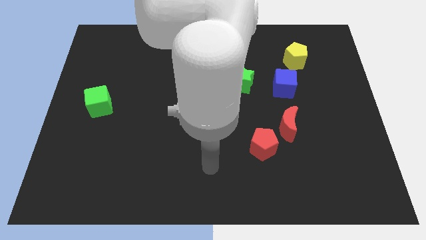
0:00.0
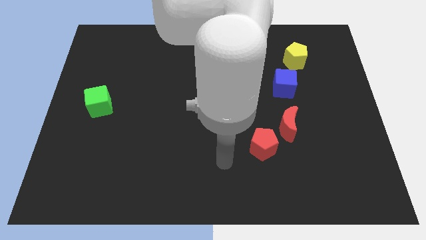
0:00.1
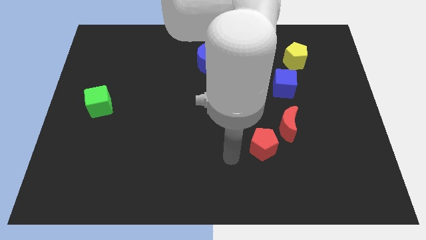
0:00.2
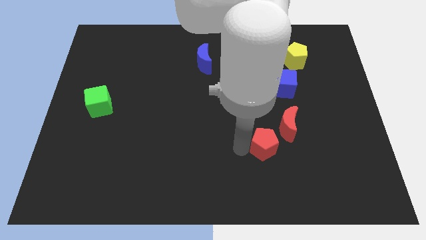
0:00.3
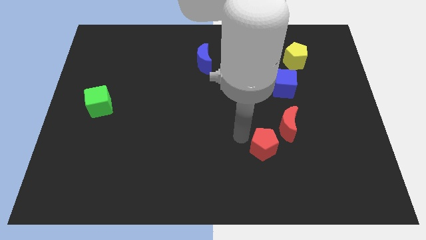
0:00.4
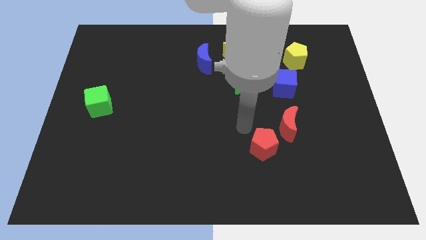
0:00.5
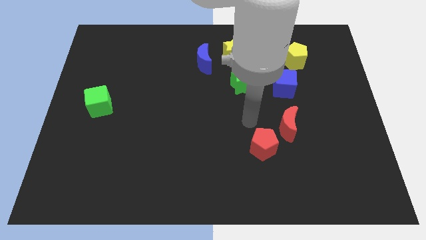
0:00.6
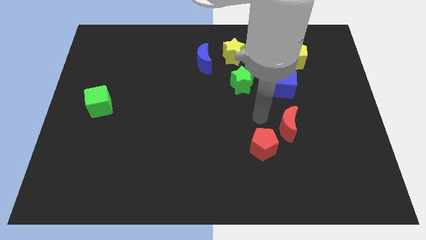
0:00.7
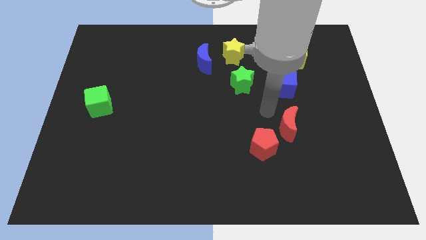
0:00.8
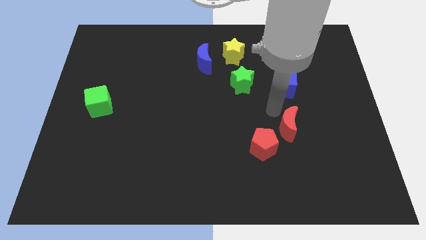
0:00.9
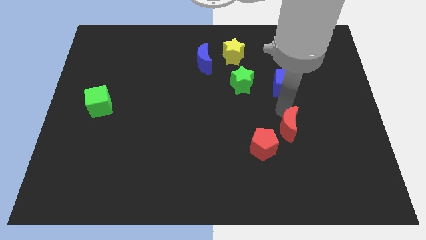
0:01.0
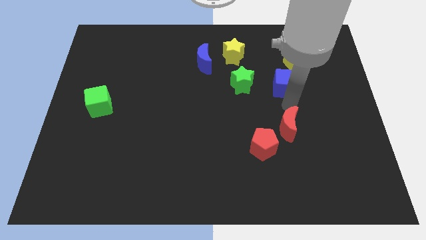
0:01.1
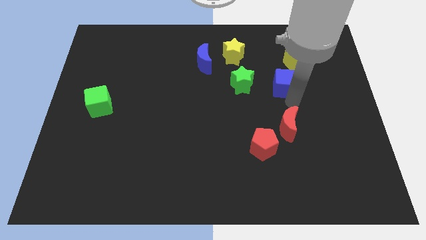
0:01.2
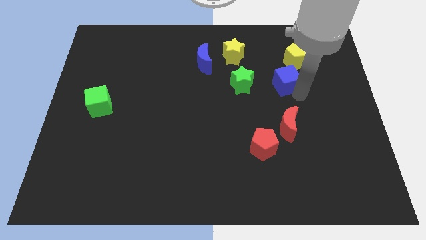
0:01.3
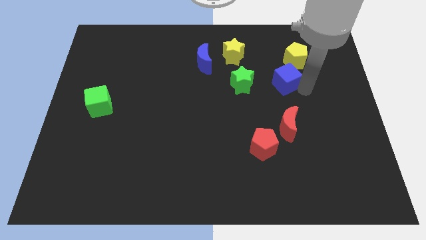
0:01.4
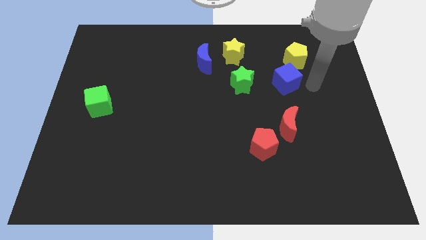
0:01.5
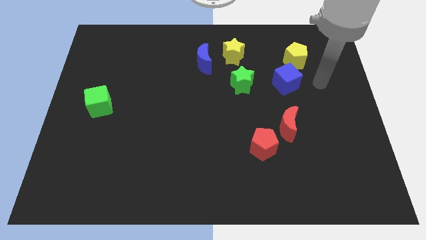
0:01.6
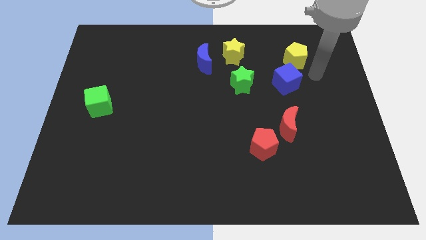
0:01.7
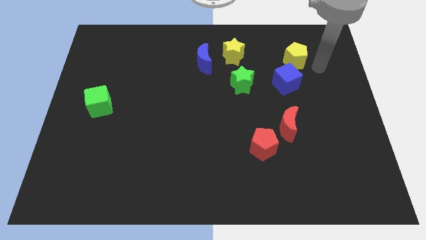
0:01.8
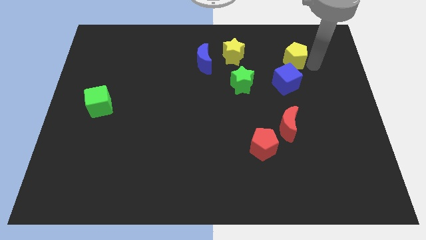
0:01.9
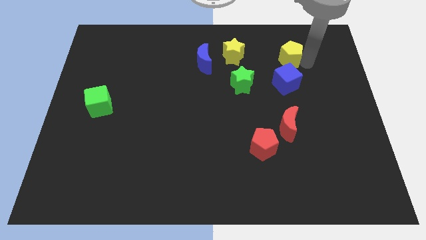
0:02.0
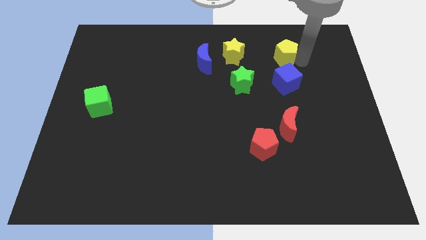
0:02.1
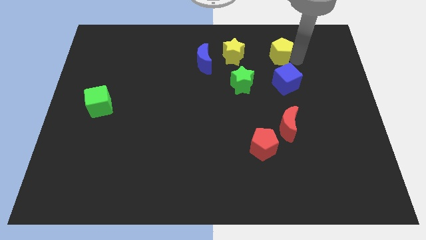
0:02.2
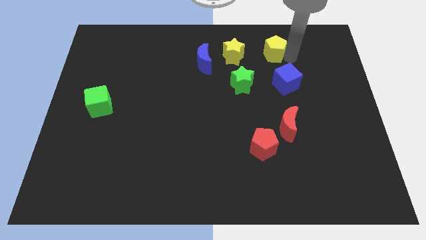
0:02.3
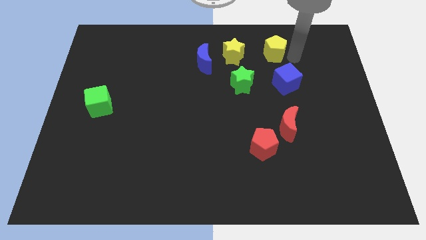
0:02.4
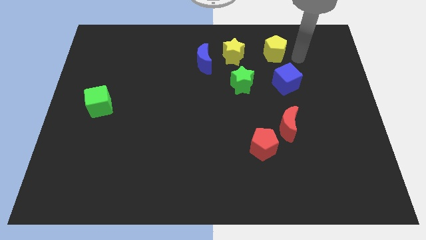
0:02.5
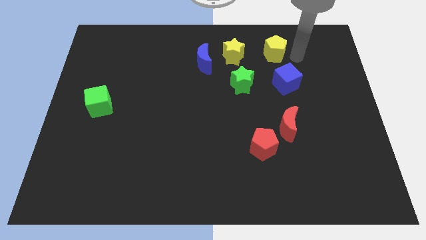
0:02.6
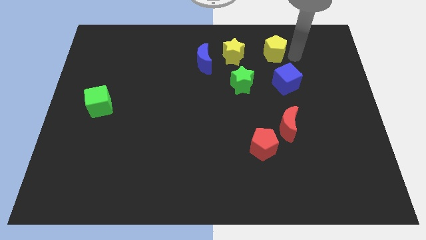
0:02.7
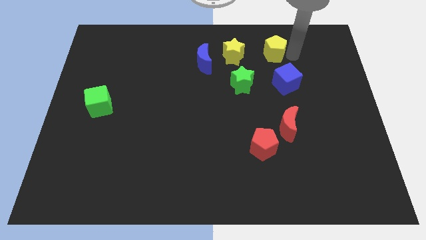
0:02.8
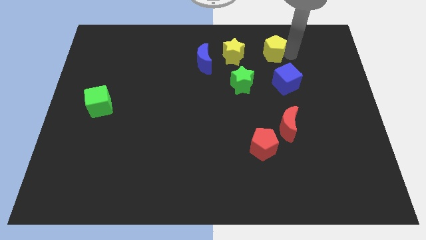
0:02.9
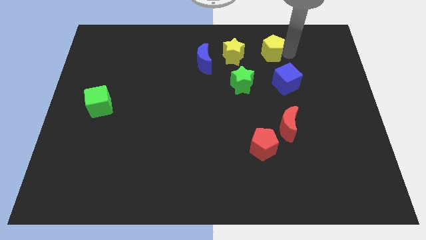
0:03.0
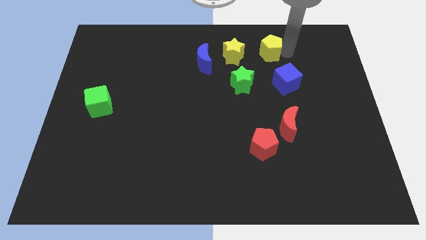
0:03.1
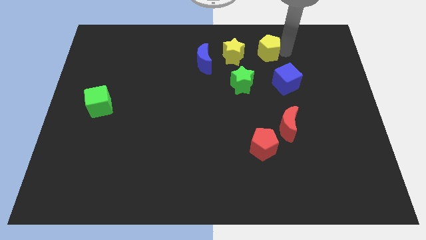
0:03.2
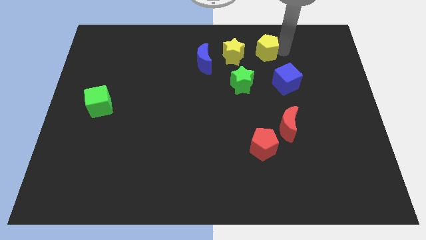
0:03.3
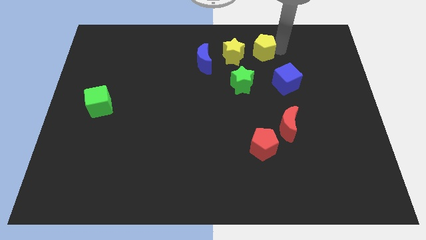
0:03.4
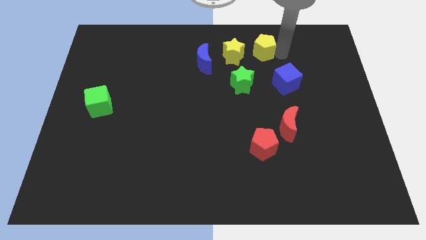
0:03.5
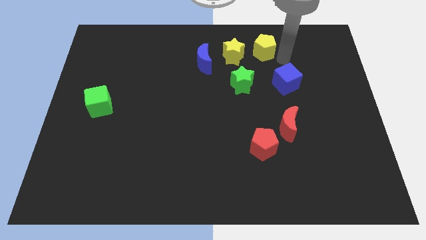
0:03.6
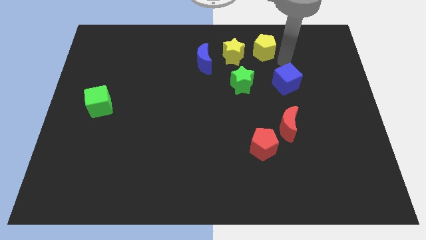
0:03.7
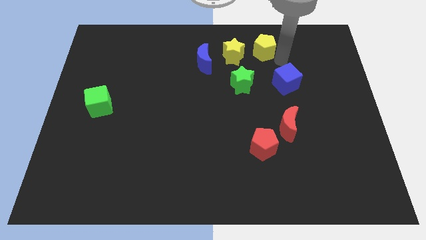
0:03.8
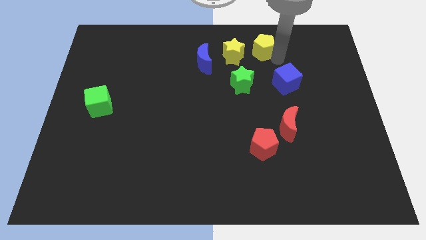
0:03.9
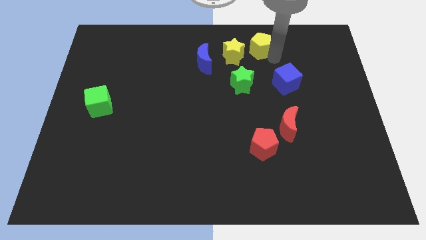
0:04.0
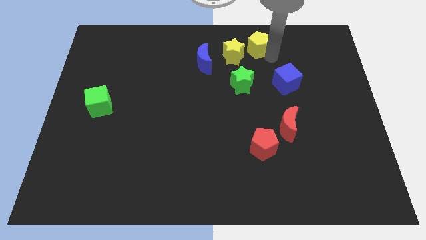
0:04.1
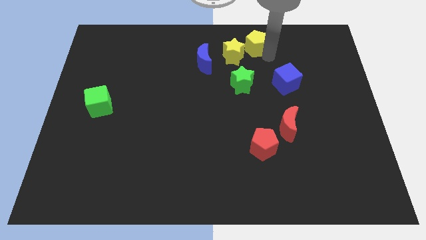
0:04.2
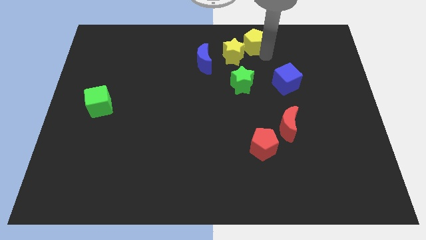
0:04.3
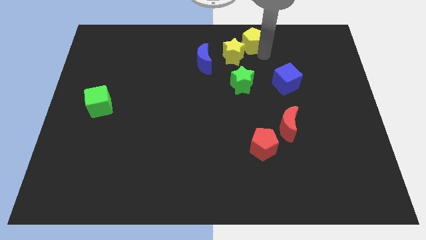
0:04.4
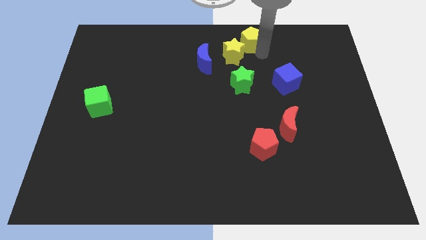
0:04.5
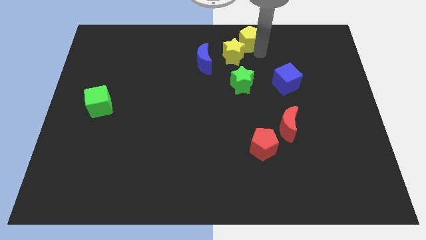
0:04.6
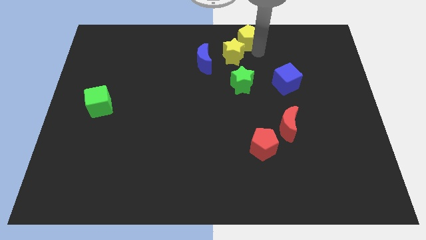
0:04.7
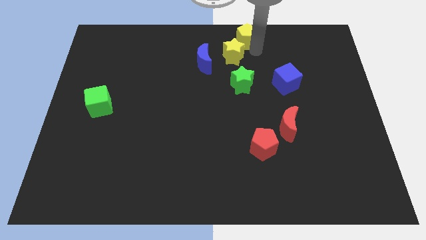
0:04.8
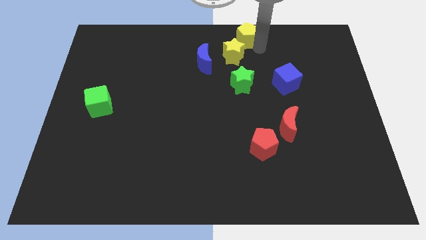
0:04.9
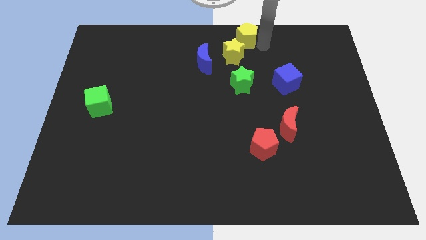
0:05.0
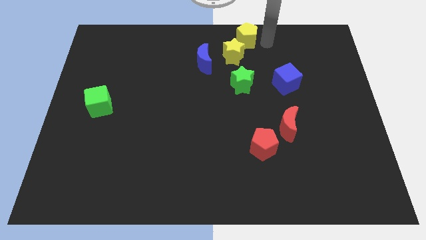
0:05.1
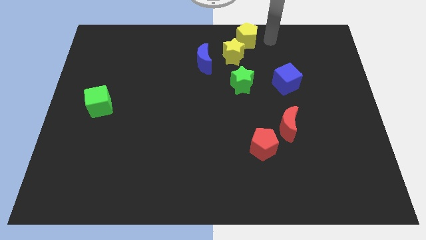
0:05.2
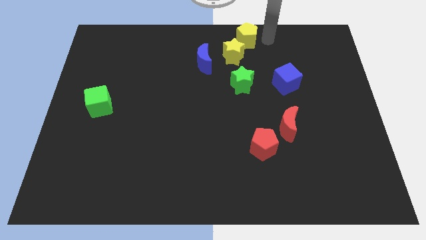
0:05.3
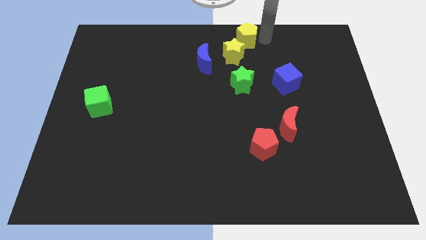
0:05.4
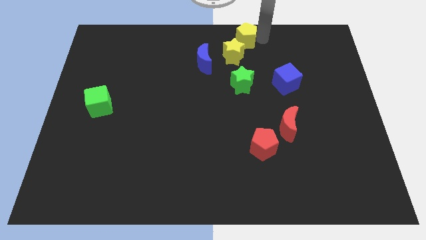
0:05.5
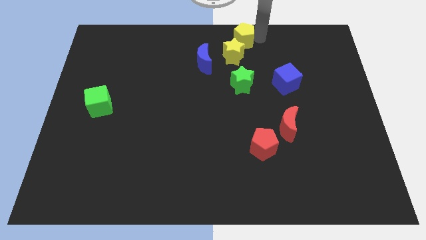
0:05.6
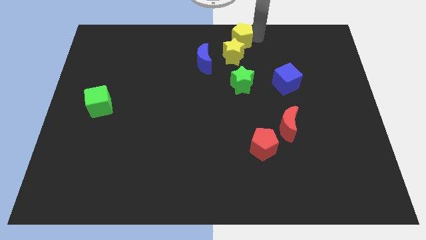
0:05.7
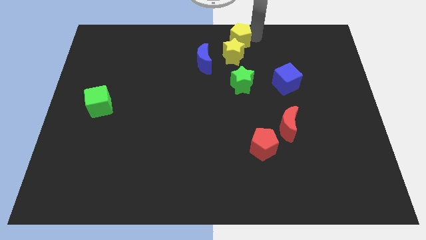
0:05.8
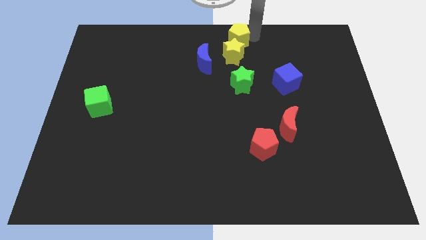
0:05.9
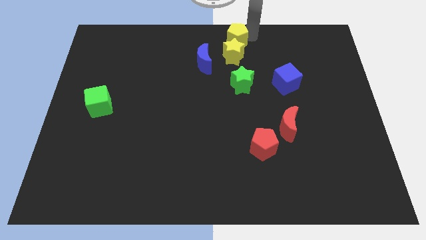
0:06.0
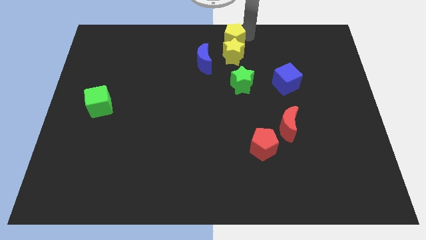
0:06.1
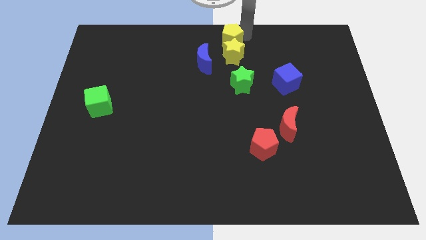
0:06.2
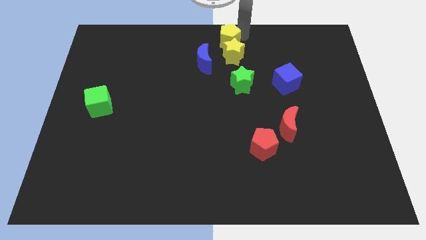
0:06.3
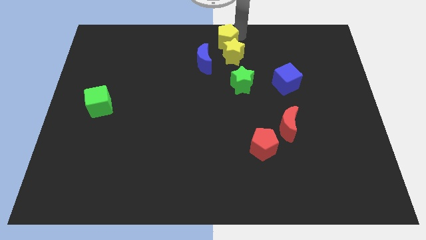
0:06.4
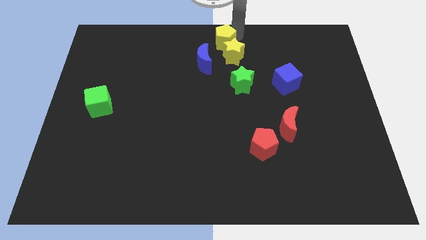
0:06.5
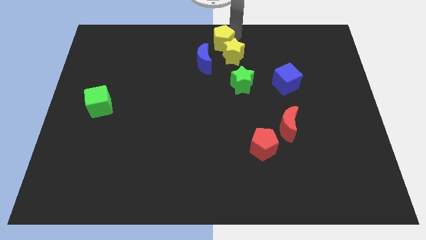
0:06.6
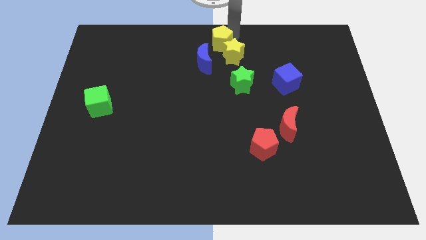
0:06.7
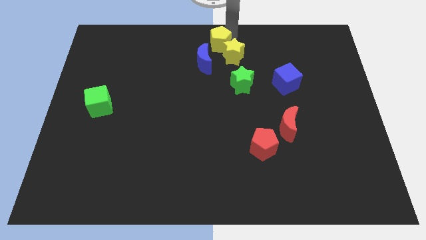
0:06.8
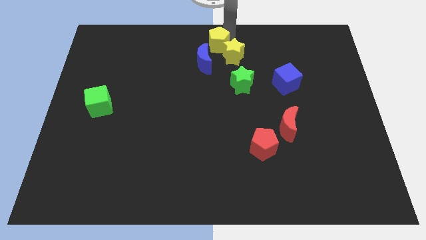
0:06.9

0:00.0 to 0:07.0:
slide the yellow pentagon left of the yellow star
